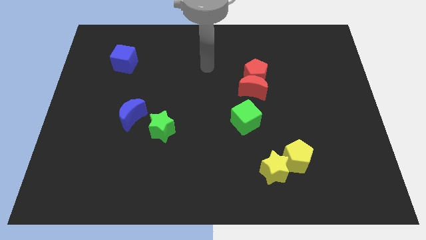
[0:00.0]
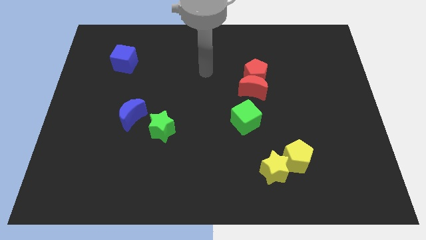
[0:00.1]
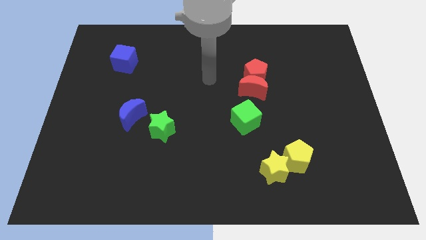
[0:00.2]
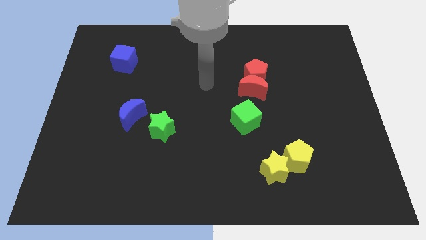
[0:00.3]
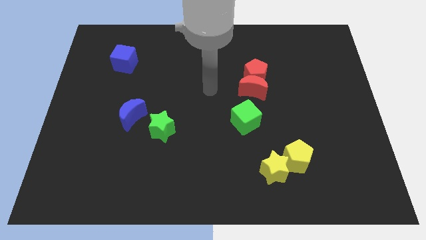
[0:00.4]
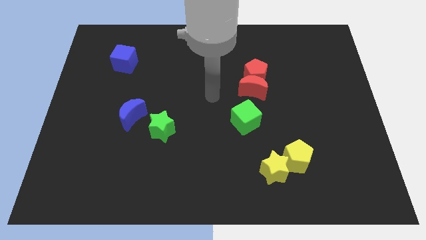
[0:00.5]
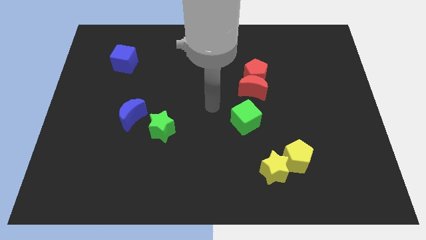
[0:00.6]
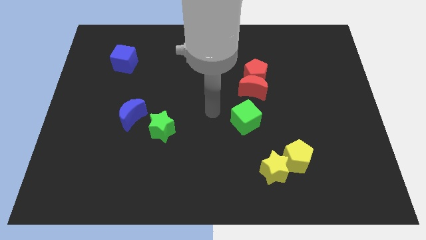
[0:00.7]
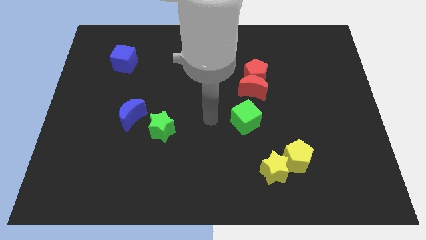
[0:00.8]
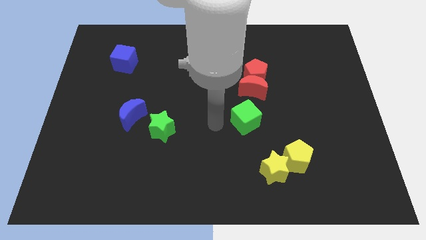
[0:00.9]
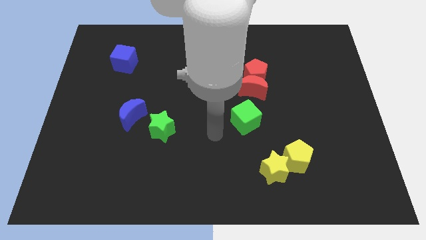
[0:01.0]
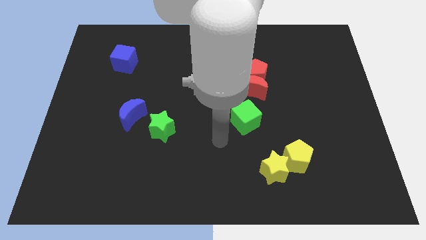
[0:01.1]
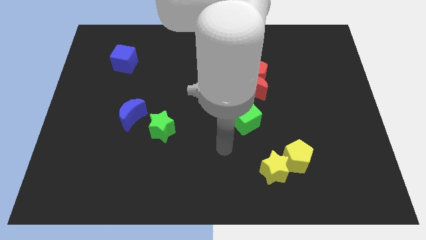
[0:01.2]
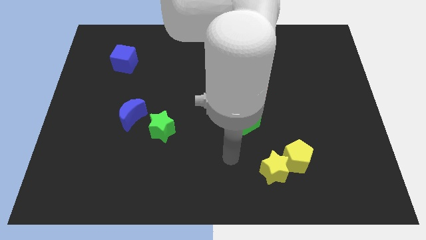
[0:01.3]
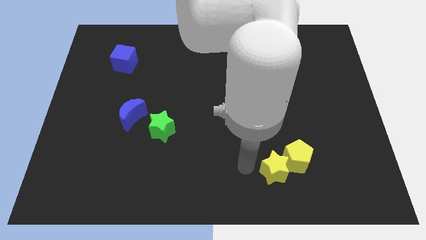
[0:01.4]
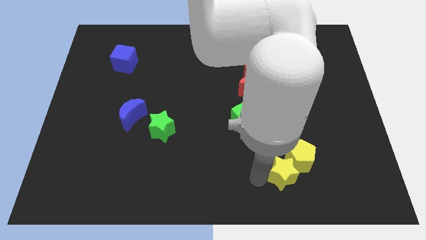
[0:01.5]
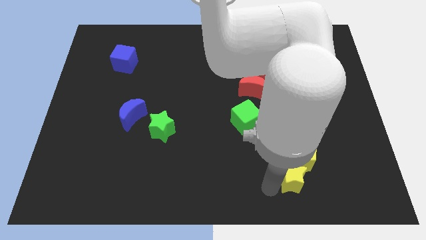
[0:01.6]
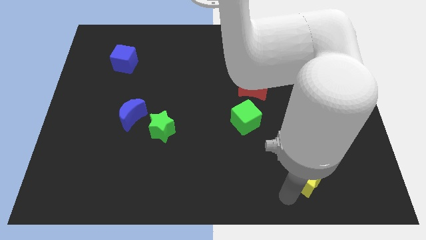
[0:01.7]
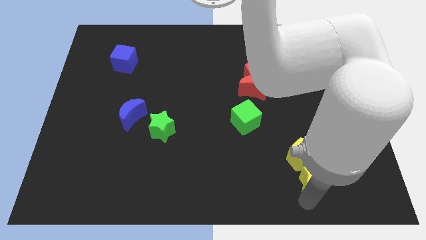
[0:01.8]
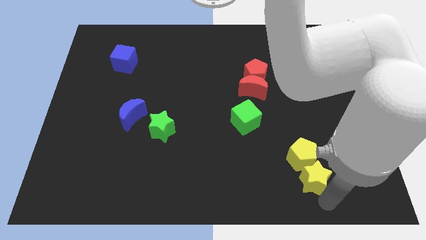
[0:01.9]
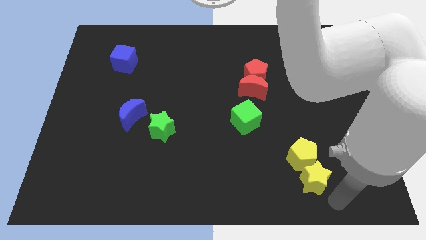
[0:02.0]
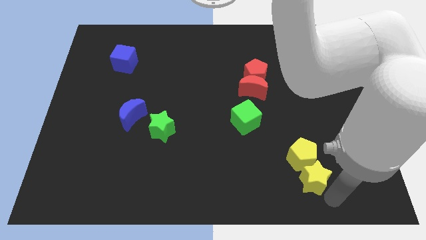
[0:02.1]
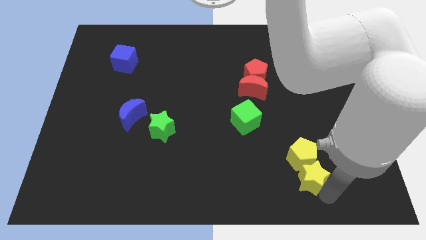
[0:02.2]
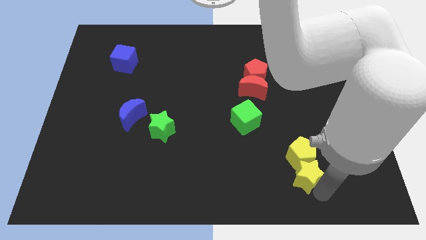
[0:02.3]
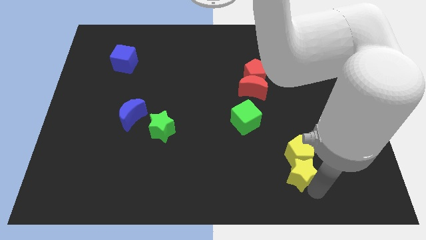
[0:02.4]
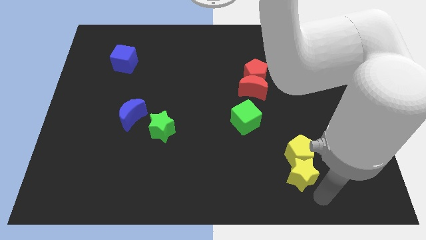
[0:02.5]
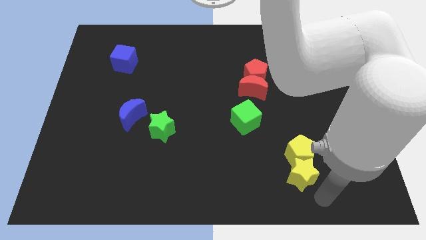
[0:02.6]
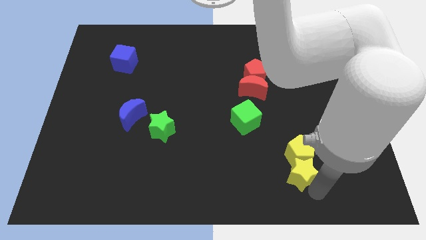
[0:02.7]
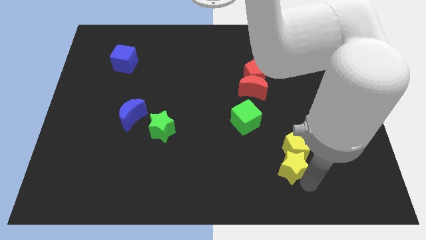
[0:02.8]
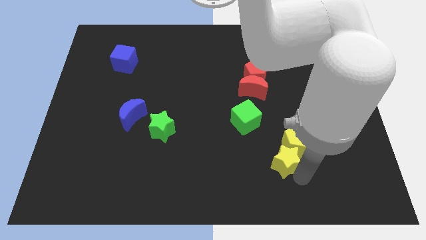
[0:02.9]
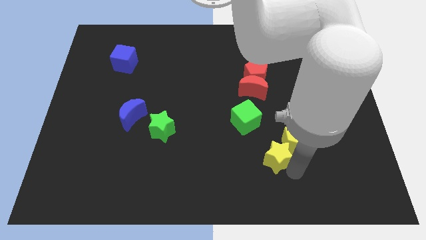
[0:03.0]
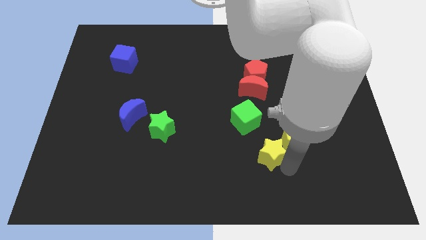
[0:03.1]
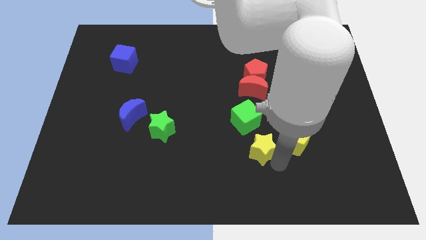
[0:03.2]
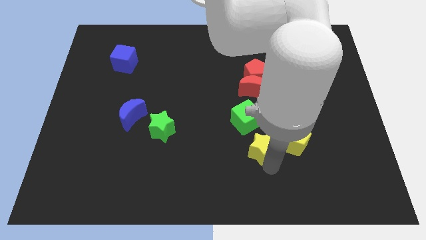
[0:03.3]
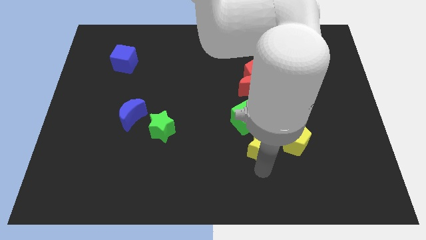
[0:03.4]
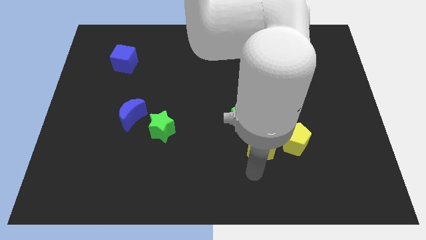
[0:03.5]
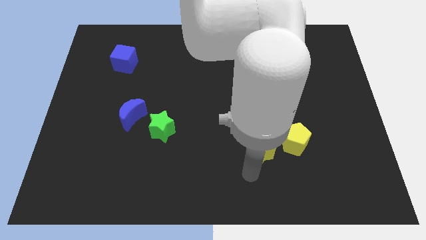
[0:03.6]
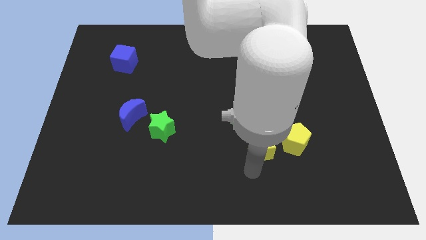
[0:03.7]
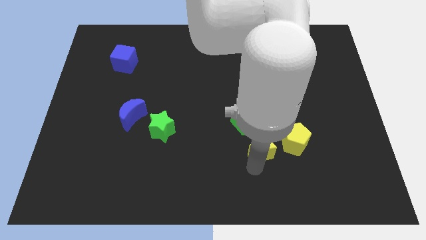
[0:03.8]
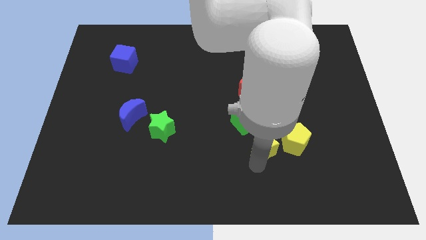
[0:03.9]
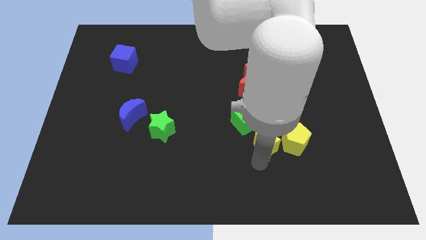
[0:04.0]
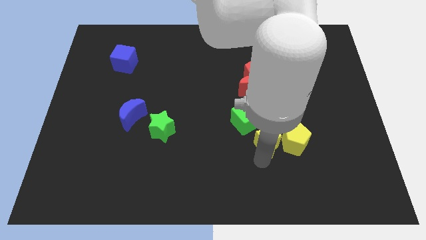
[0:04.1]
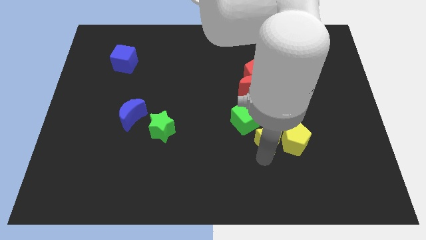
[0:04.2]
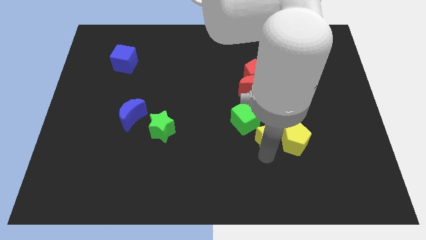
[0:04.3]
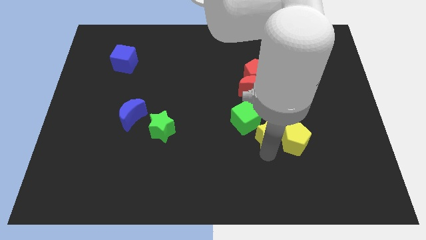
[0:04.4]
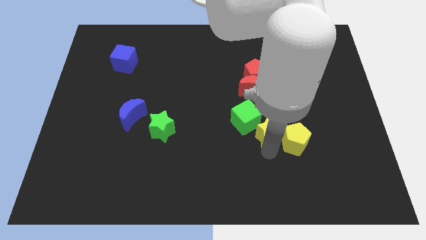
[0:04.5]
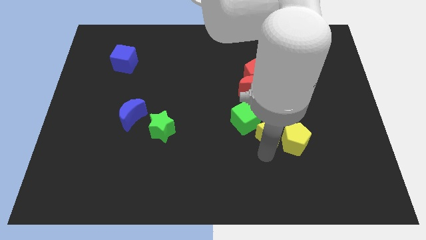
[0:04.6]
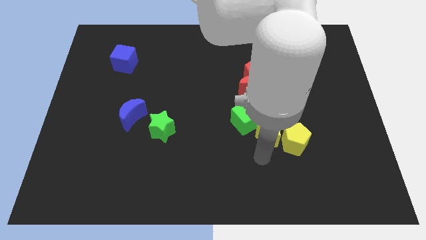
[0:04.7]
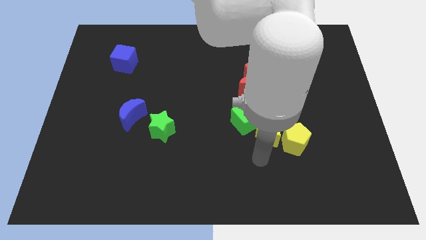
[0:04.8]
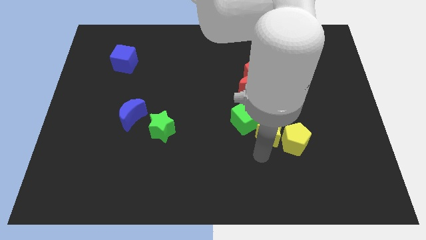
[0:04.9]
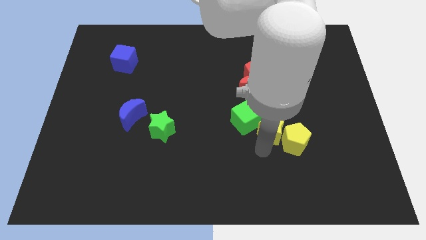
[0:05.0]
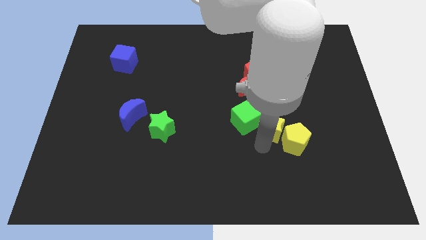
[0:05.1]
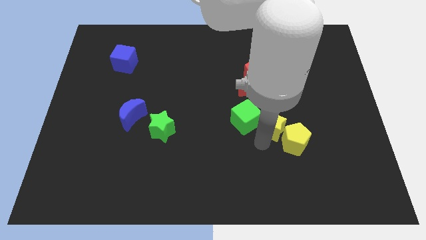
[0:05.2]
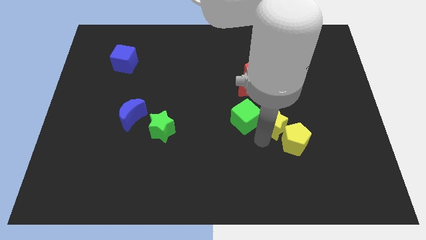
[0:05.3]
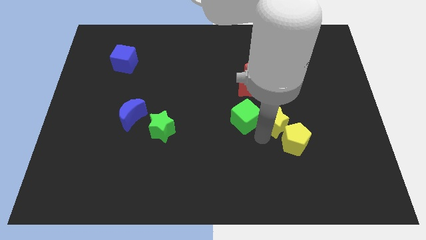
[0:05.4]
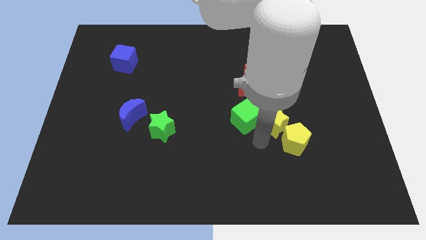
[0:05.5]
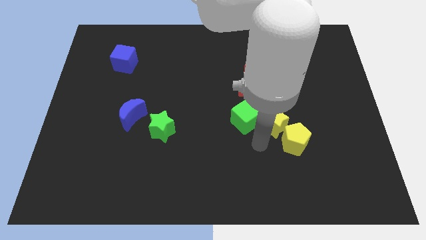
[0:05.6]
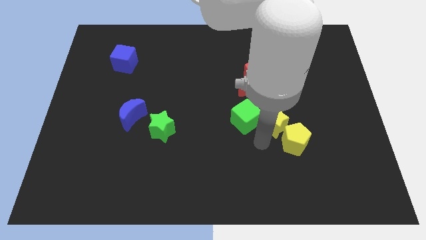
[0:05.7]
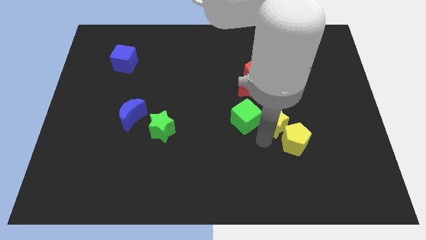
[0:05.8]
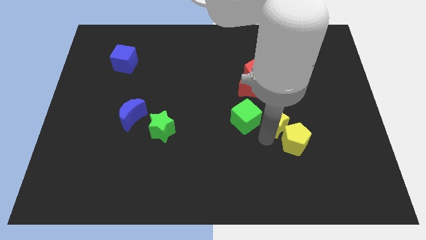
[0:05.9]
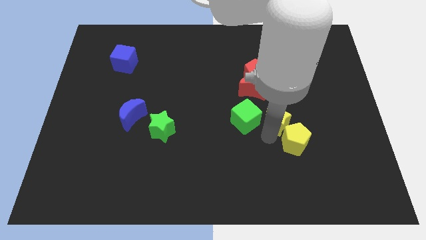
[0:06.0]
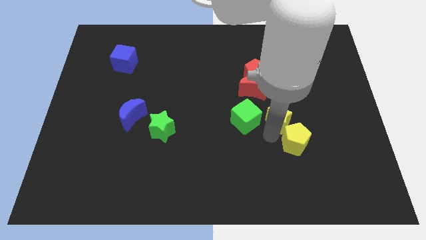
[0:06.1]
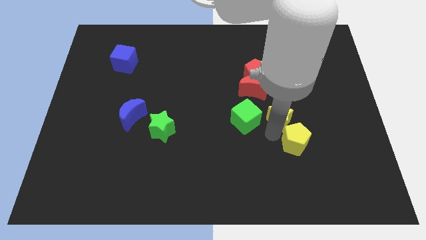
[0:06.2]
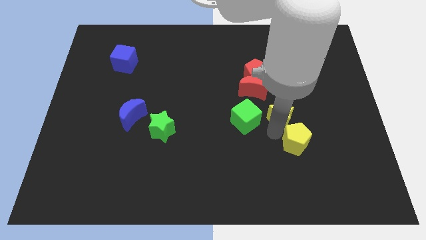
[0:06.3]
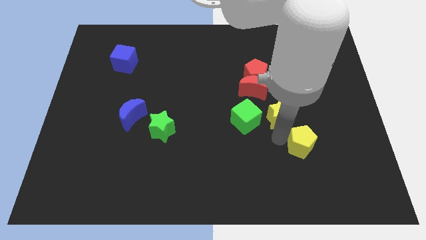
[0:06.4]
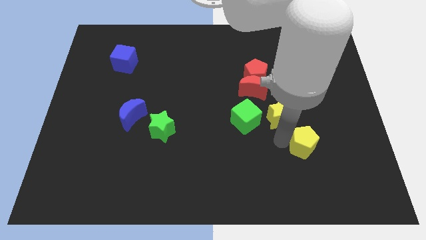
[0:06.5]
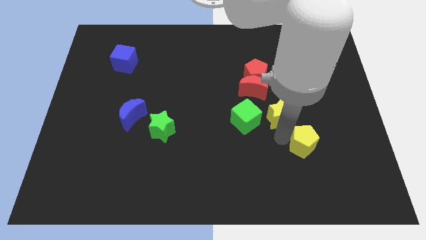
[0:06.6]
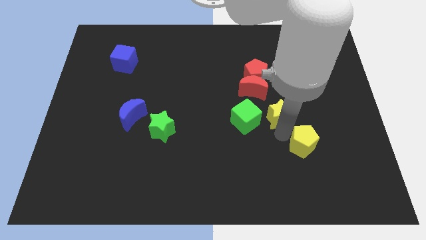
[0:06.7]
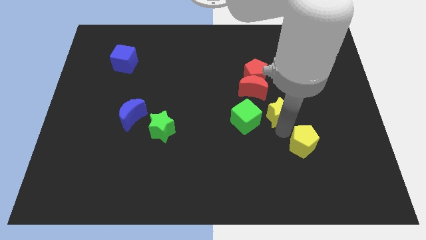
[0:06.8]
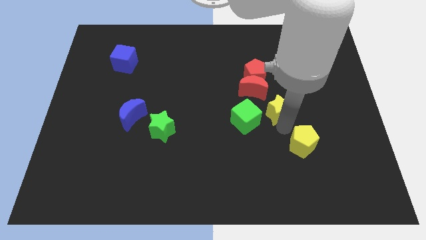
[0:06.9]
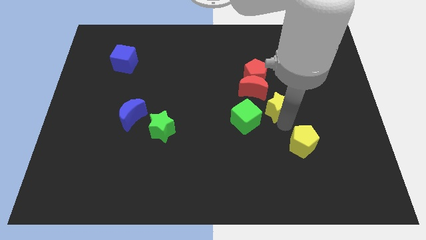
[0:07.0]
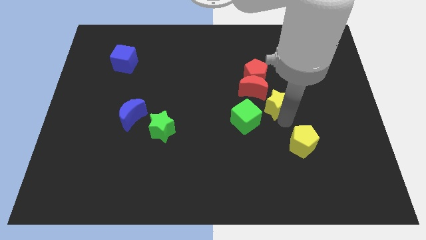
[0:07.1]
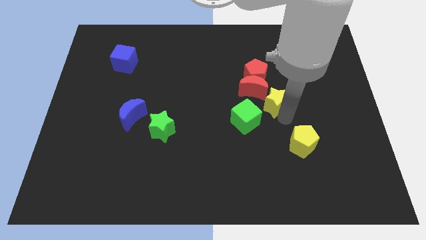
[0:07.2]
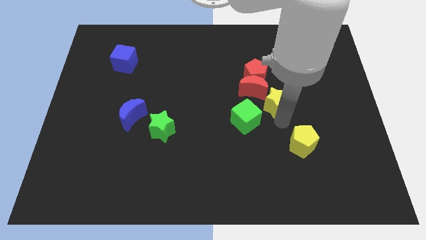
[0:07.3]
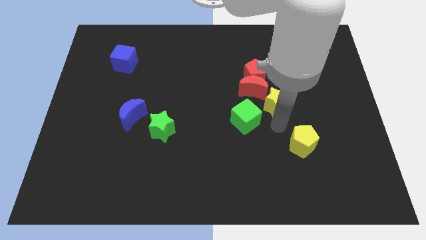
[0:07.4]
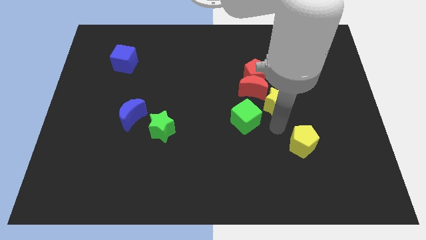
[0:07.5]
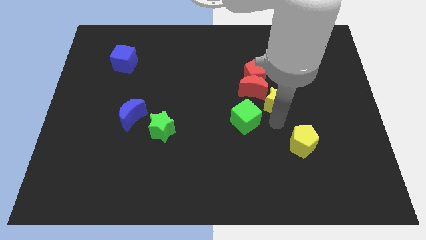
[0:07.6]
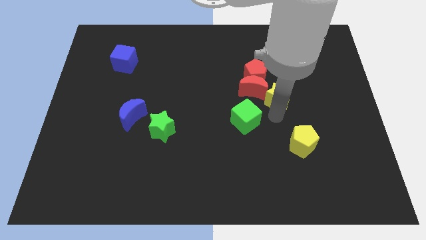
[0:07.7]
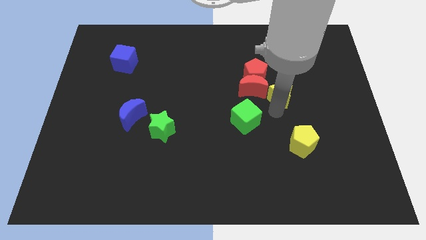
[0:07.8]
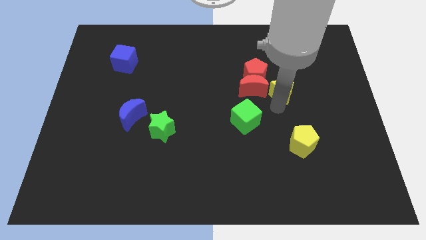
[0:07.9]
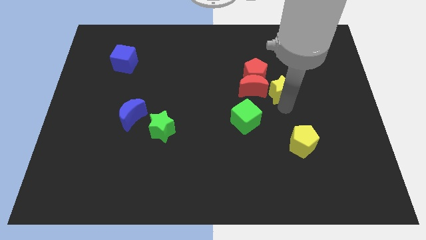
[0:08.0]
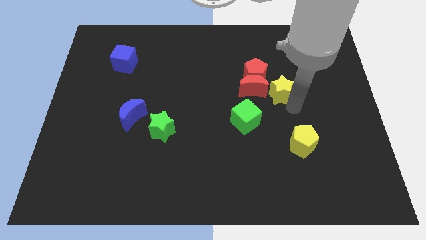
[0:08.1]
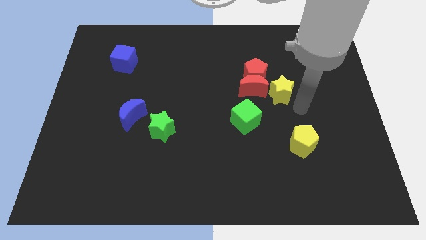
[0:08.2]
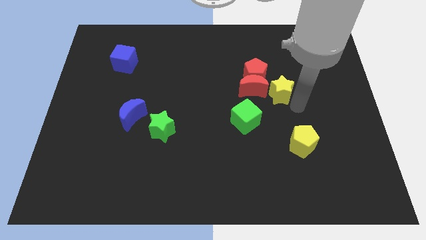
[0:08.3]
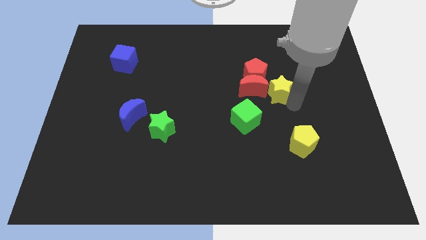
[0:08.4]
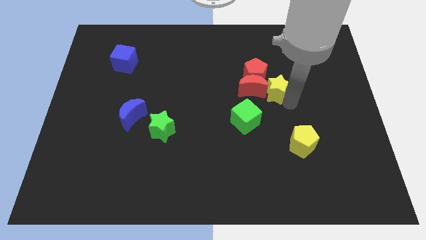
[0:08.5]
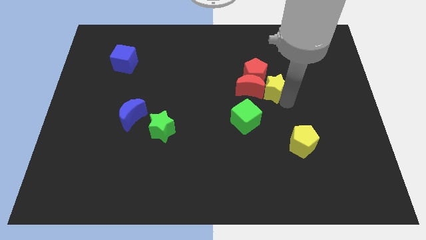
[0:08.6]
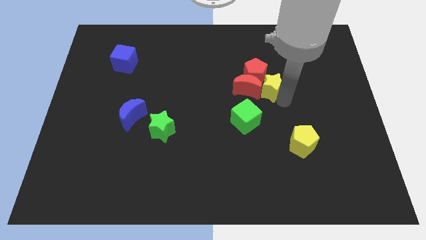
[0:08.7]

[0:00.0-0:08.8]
move the yellow star to the red pentagon
